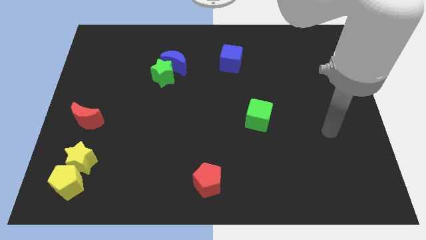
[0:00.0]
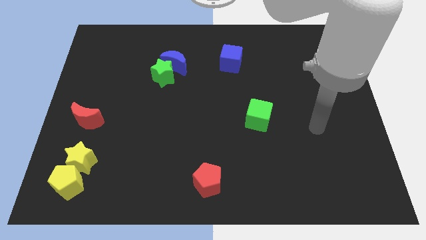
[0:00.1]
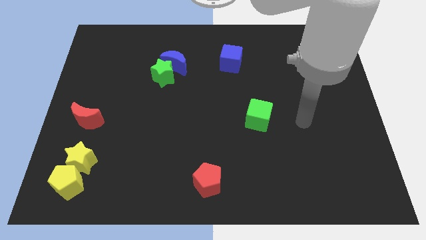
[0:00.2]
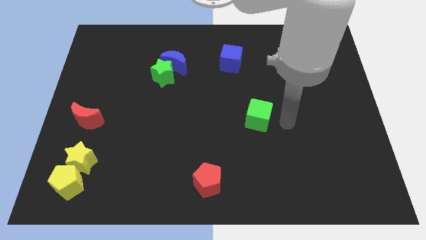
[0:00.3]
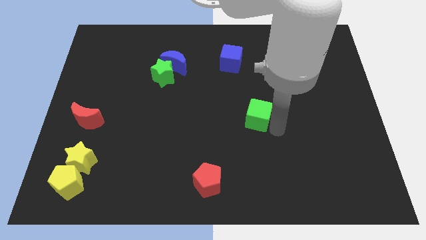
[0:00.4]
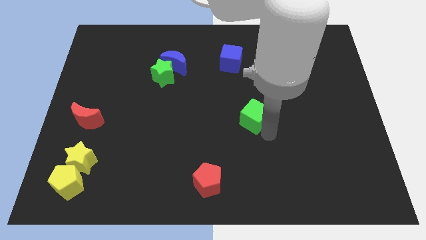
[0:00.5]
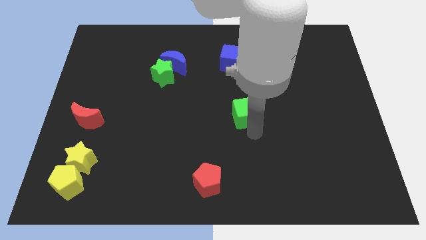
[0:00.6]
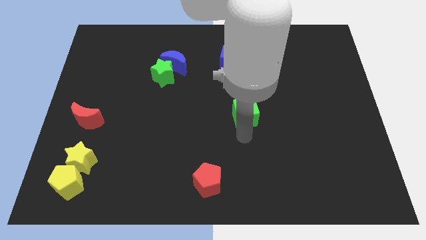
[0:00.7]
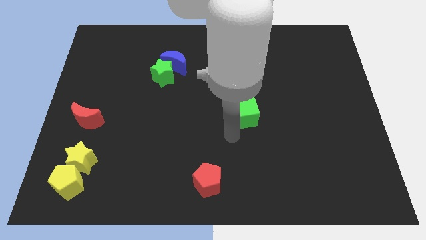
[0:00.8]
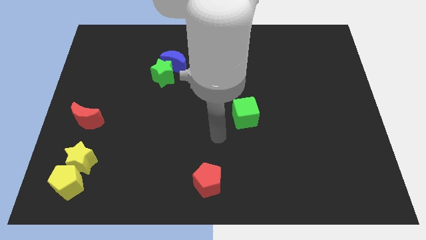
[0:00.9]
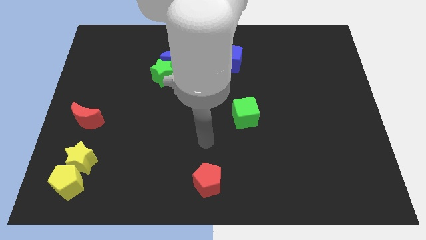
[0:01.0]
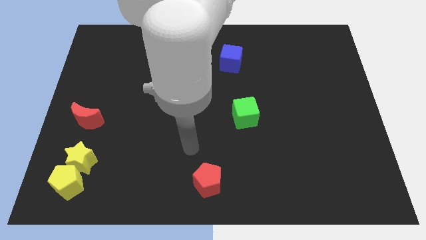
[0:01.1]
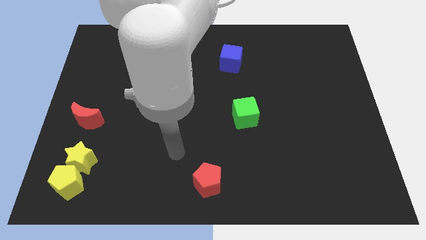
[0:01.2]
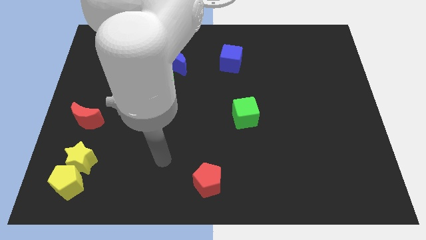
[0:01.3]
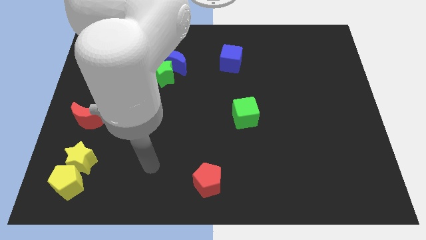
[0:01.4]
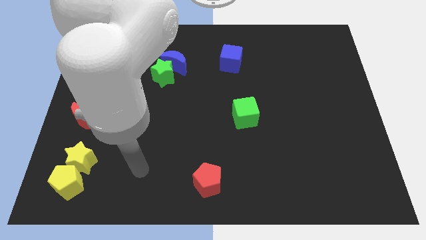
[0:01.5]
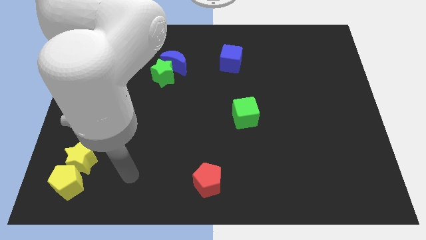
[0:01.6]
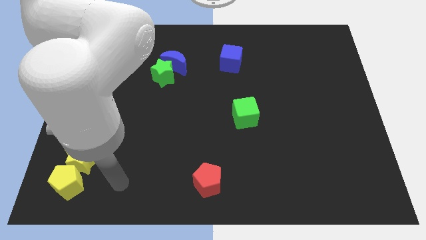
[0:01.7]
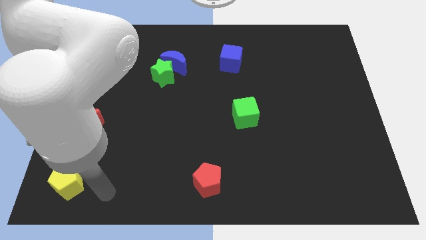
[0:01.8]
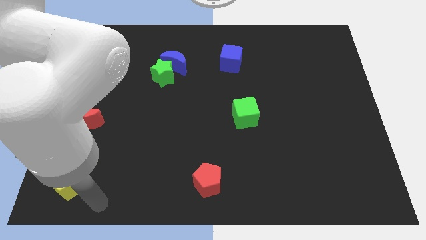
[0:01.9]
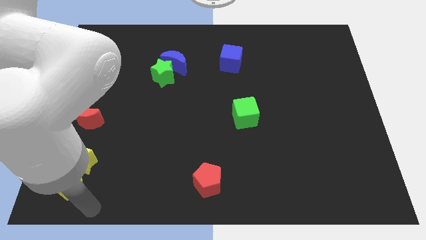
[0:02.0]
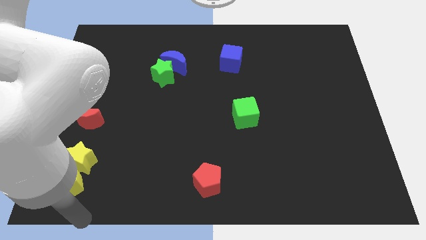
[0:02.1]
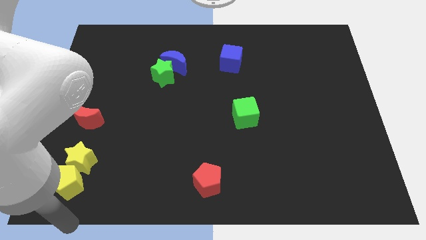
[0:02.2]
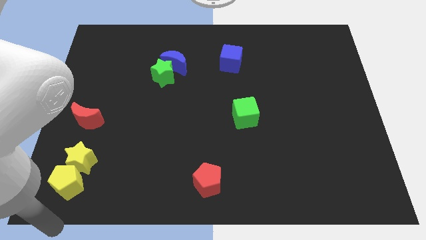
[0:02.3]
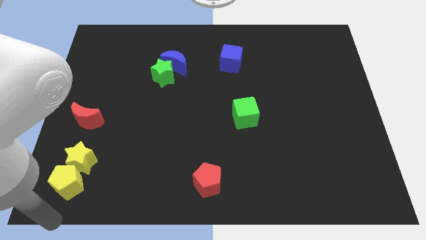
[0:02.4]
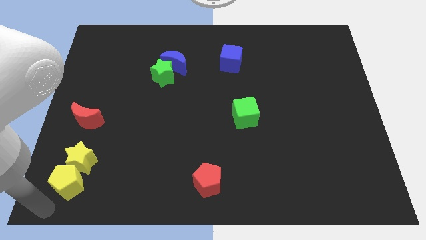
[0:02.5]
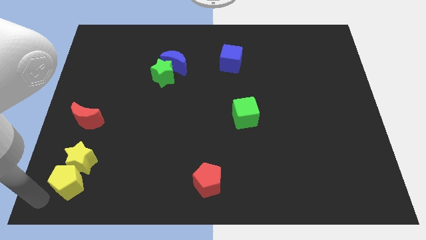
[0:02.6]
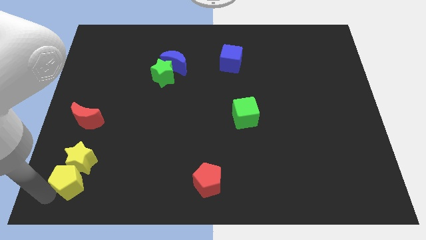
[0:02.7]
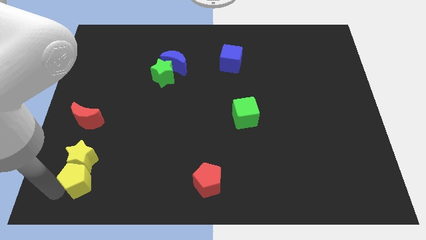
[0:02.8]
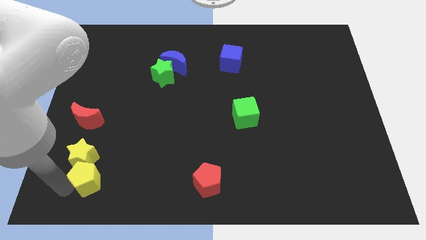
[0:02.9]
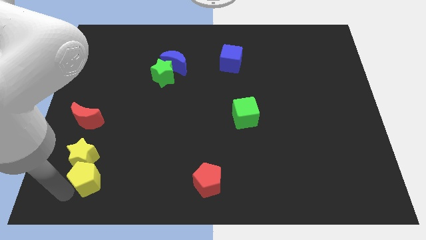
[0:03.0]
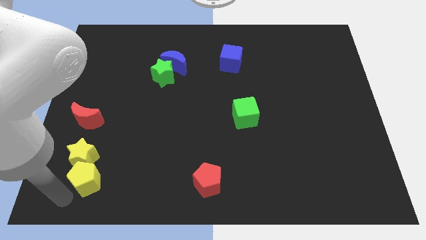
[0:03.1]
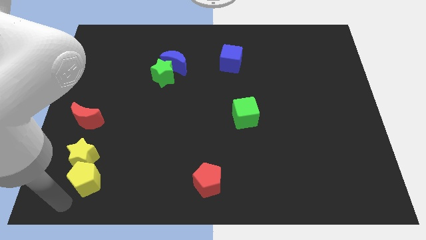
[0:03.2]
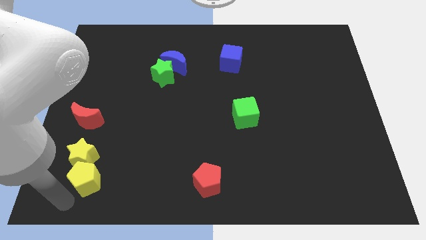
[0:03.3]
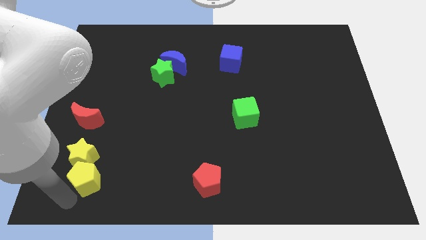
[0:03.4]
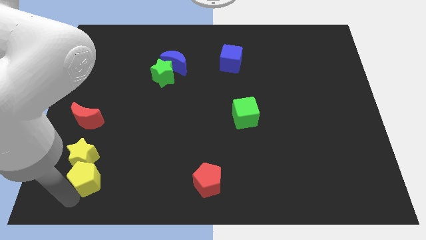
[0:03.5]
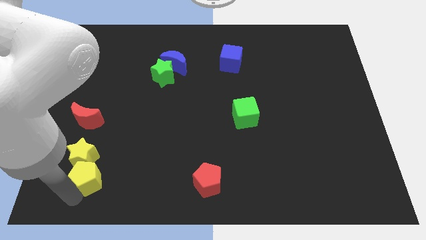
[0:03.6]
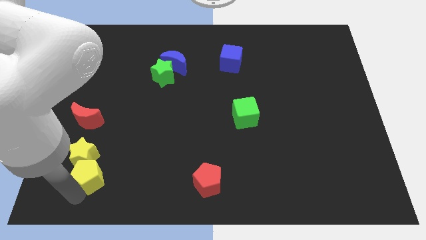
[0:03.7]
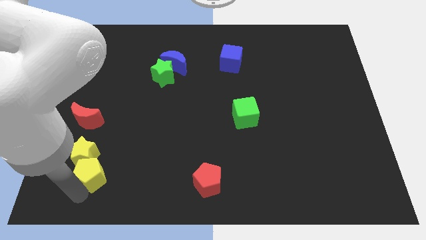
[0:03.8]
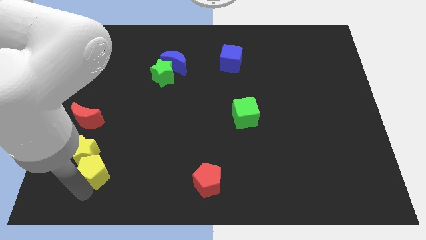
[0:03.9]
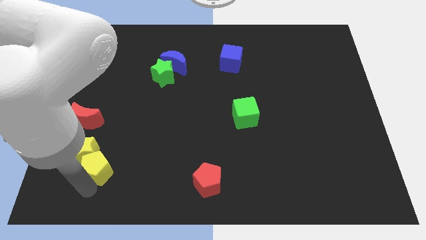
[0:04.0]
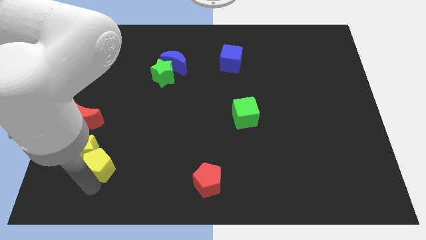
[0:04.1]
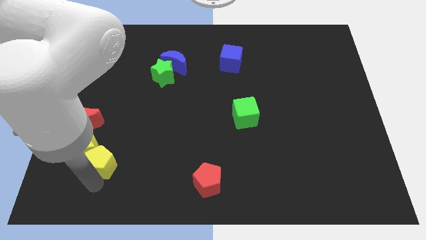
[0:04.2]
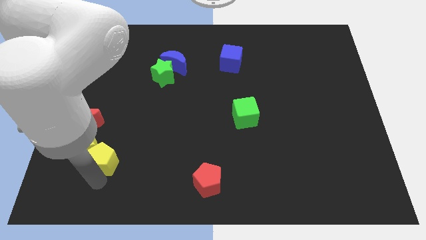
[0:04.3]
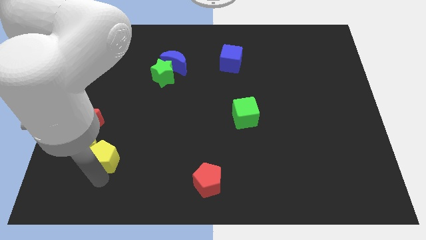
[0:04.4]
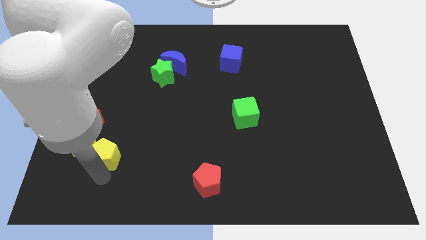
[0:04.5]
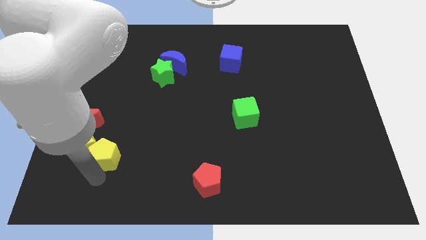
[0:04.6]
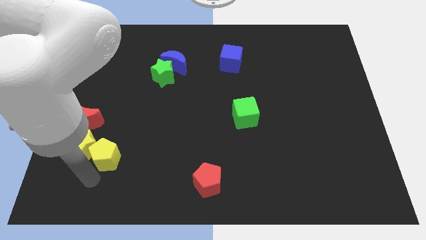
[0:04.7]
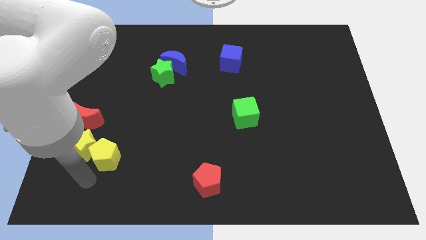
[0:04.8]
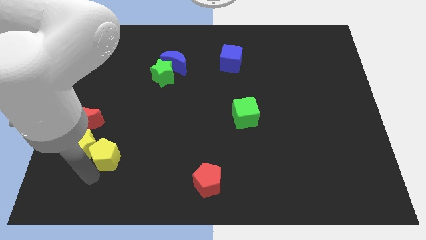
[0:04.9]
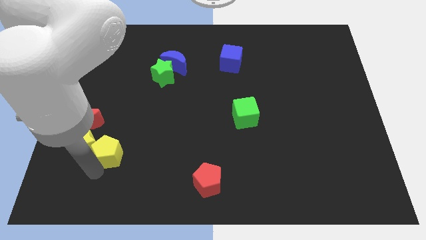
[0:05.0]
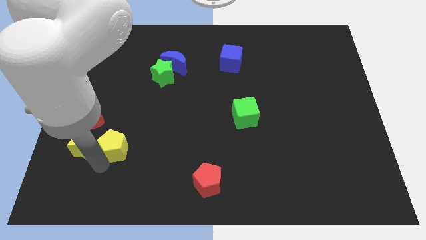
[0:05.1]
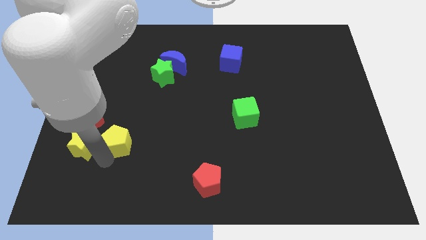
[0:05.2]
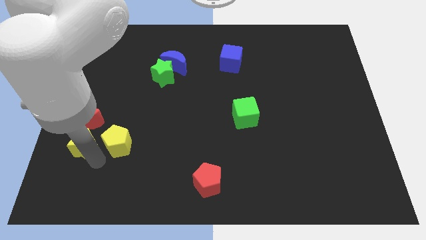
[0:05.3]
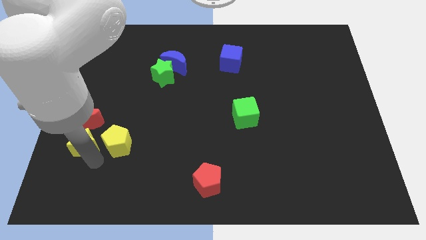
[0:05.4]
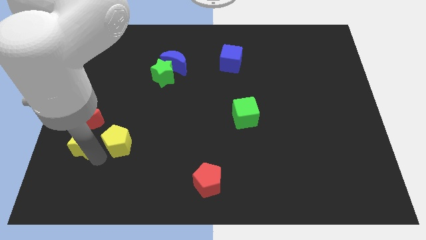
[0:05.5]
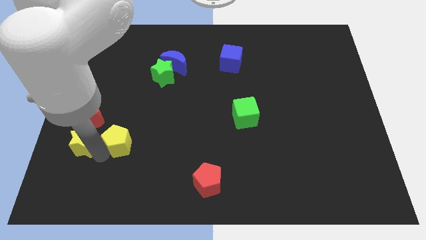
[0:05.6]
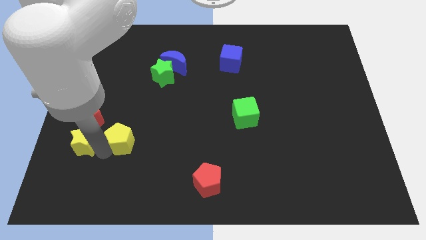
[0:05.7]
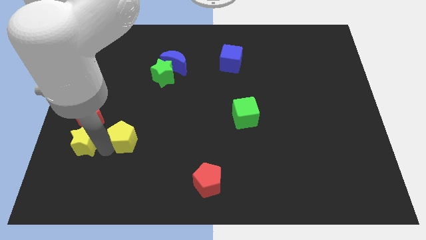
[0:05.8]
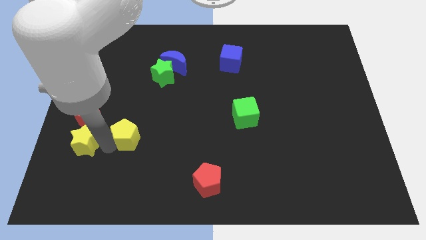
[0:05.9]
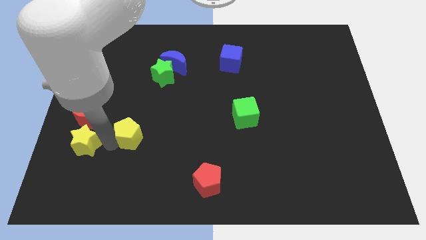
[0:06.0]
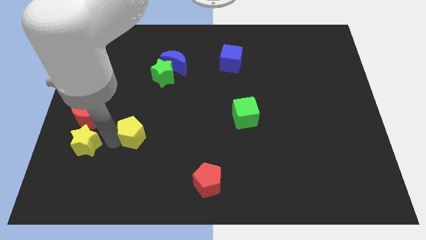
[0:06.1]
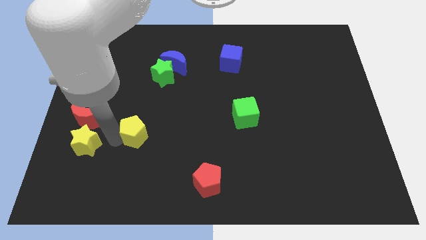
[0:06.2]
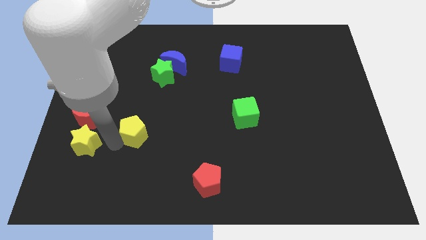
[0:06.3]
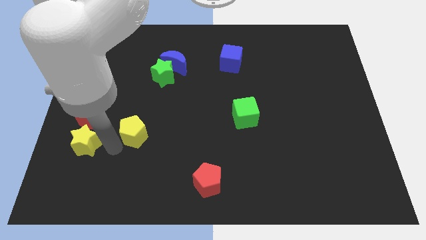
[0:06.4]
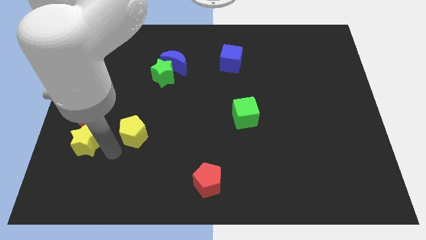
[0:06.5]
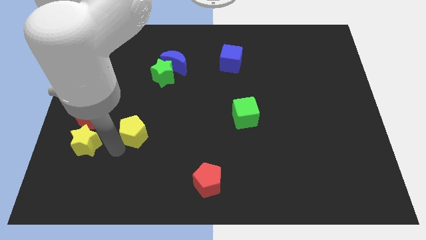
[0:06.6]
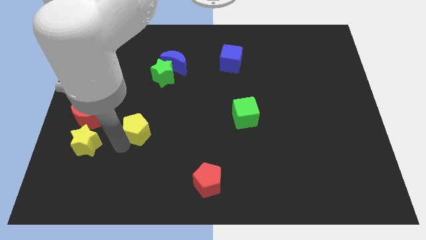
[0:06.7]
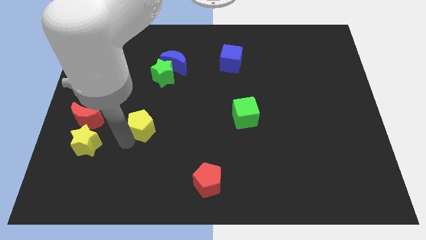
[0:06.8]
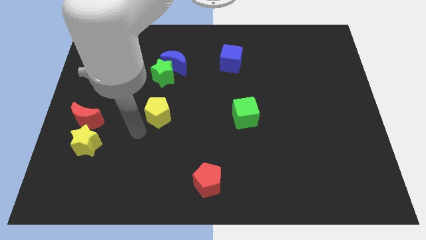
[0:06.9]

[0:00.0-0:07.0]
slide the yellow pentagon up and then right

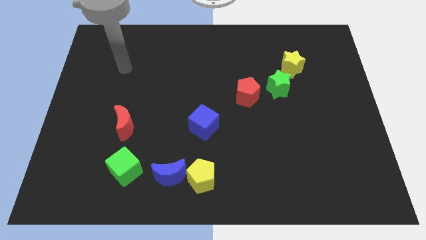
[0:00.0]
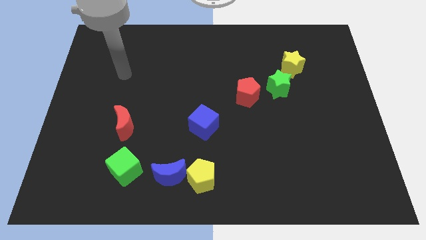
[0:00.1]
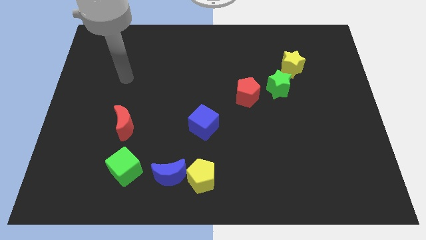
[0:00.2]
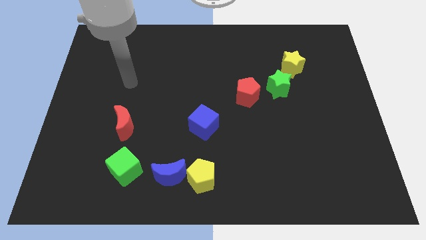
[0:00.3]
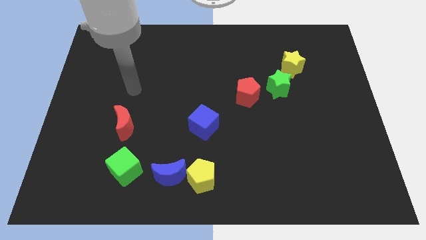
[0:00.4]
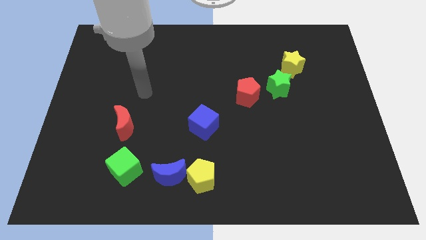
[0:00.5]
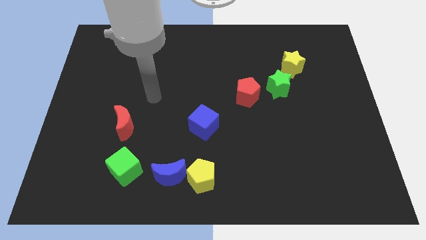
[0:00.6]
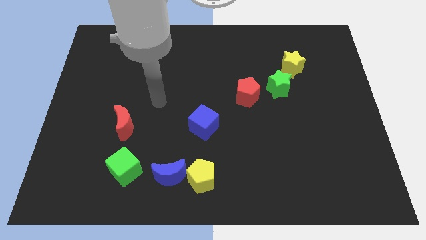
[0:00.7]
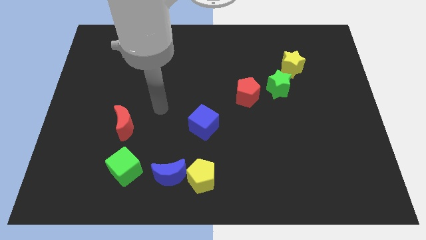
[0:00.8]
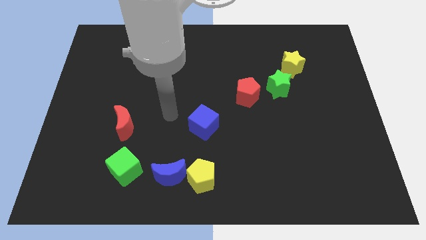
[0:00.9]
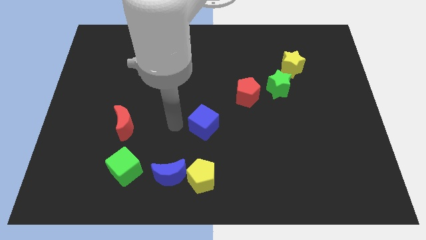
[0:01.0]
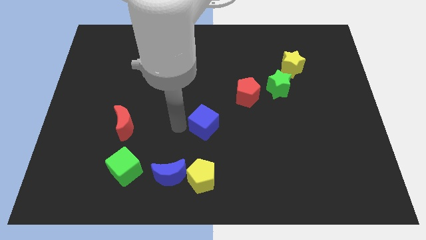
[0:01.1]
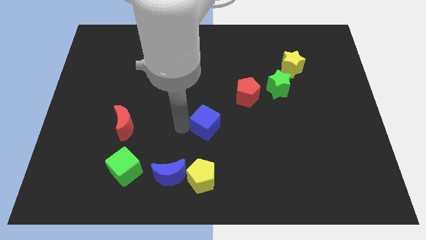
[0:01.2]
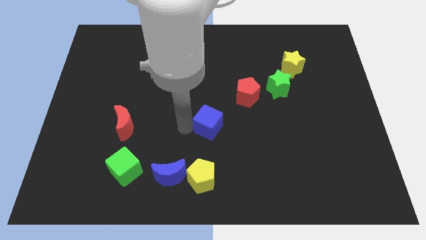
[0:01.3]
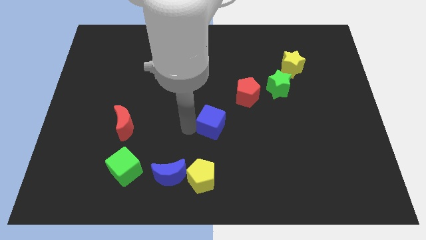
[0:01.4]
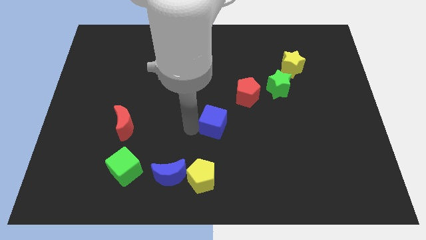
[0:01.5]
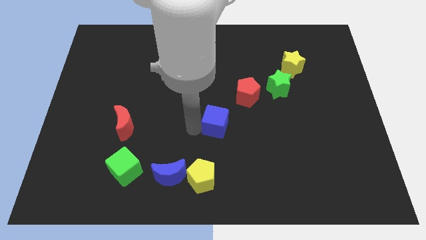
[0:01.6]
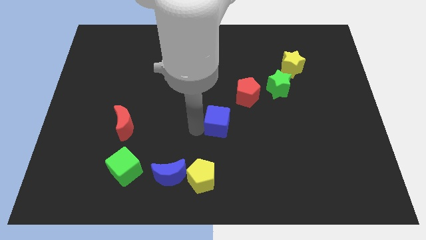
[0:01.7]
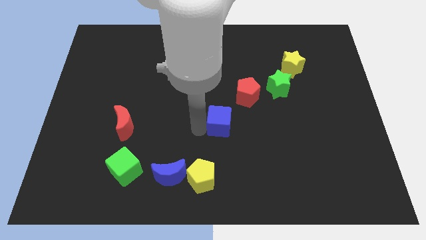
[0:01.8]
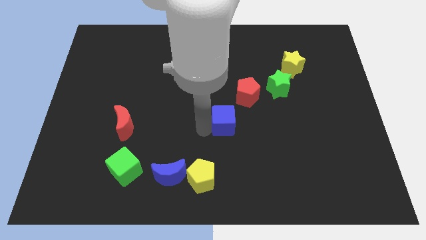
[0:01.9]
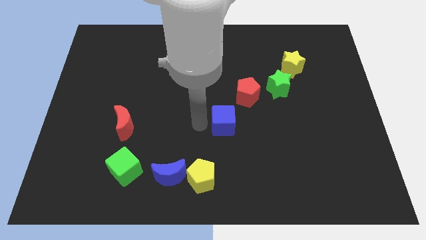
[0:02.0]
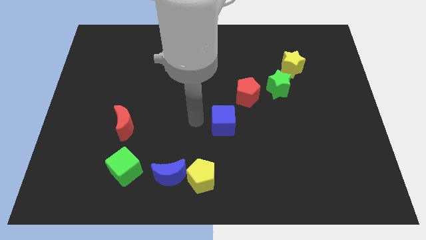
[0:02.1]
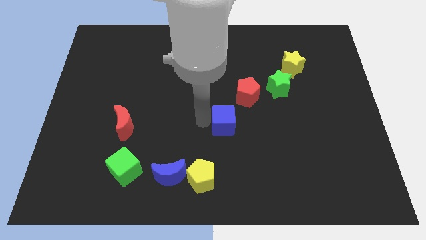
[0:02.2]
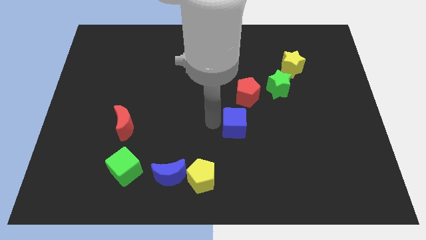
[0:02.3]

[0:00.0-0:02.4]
push the blue cube to the right a little
